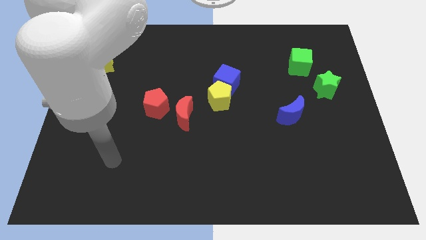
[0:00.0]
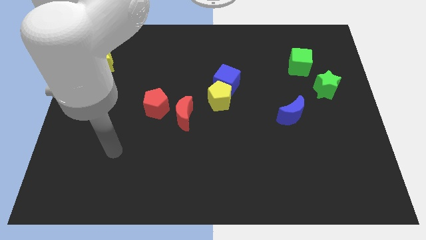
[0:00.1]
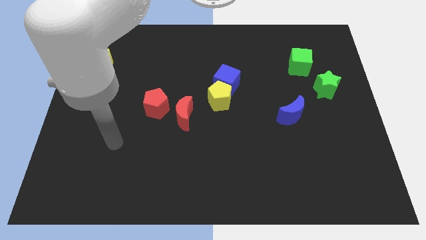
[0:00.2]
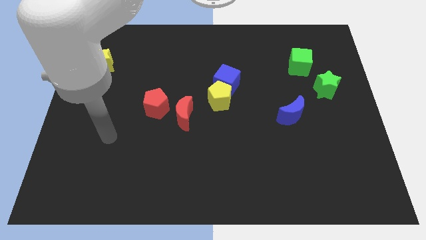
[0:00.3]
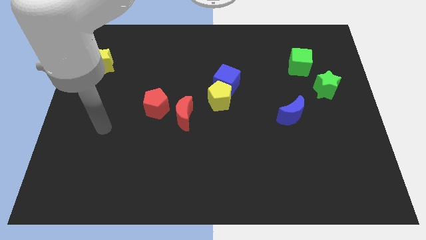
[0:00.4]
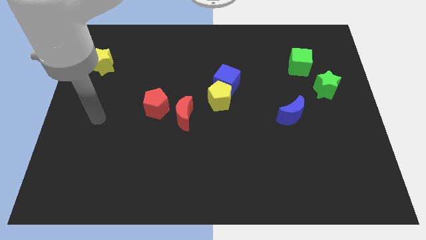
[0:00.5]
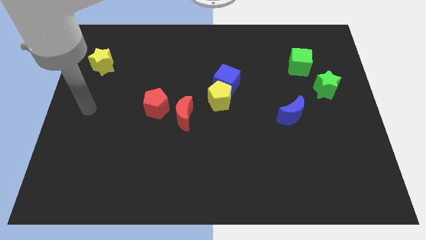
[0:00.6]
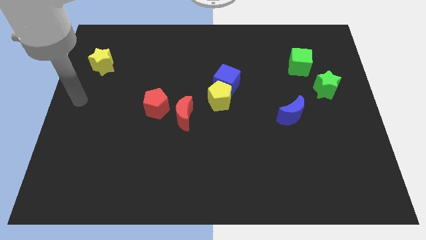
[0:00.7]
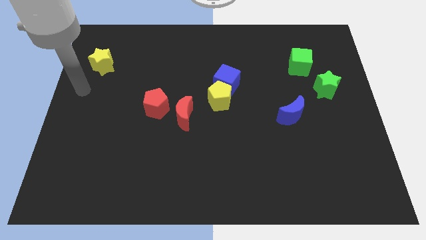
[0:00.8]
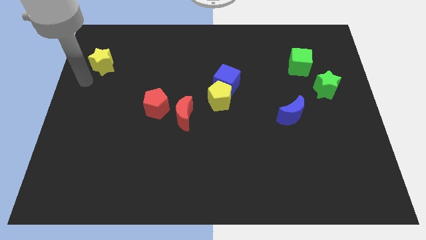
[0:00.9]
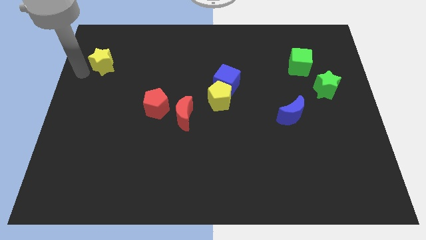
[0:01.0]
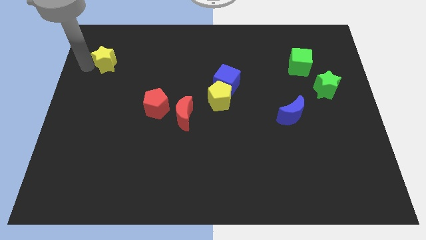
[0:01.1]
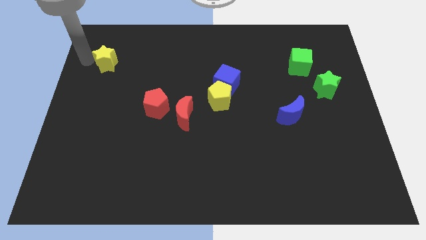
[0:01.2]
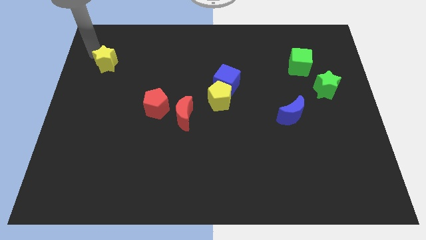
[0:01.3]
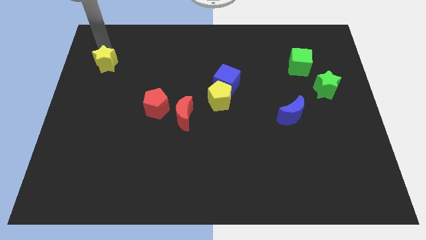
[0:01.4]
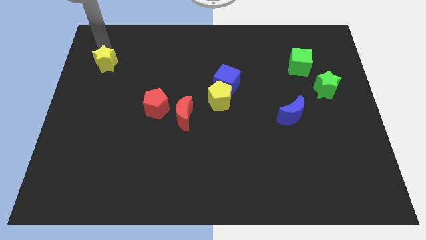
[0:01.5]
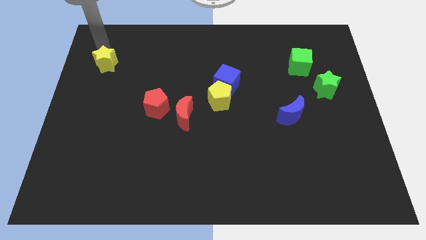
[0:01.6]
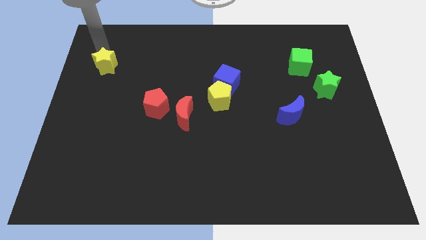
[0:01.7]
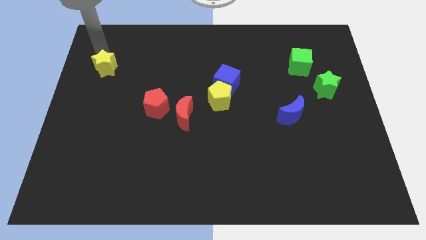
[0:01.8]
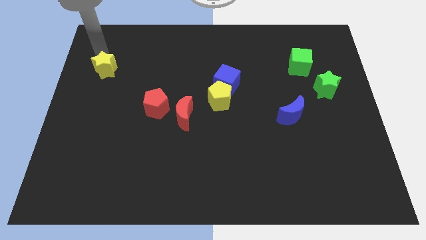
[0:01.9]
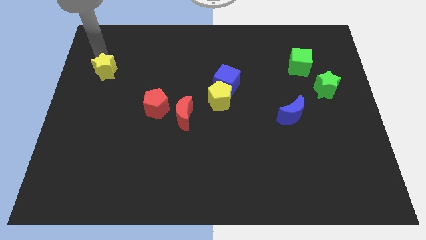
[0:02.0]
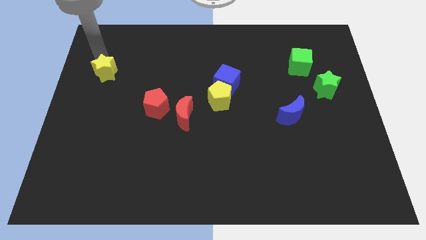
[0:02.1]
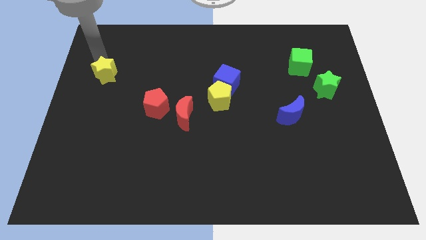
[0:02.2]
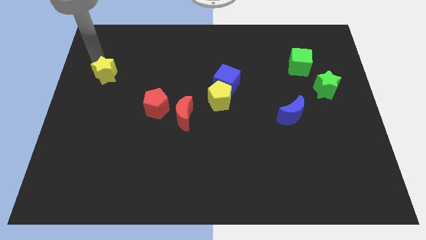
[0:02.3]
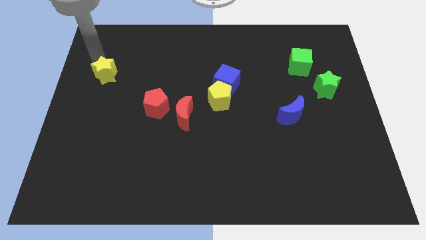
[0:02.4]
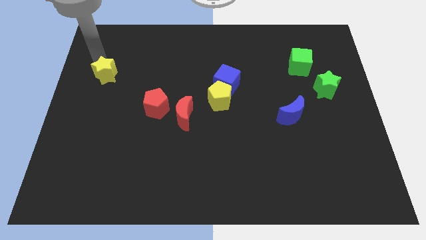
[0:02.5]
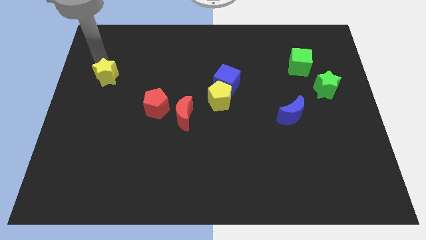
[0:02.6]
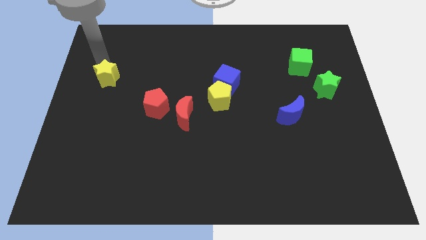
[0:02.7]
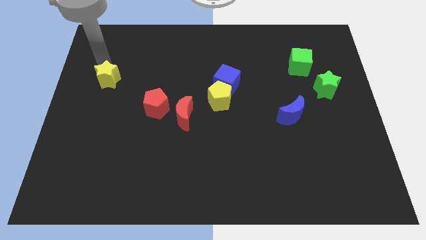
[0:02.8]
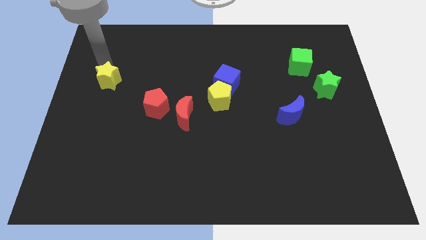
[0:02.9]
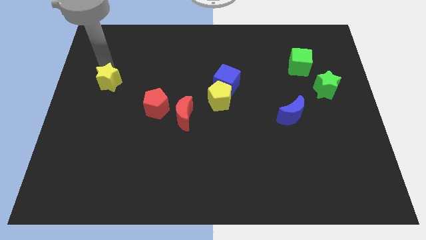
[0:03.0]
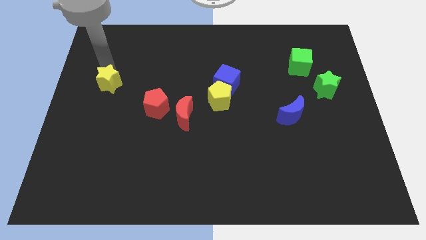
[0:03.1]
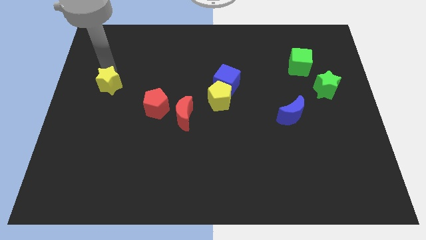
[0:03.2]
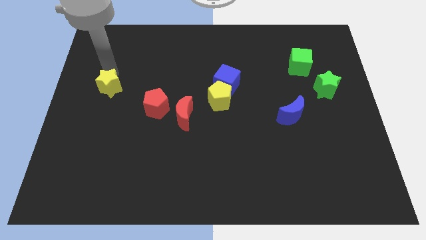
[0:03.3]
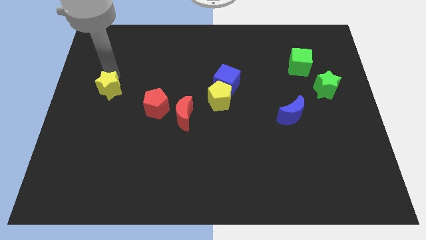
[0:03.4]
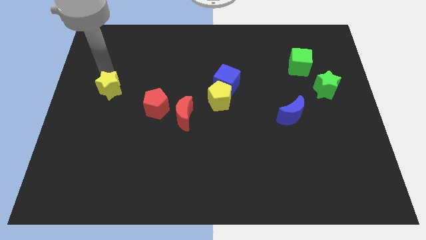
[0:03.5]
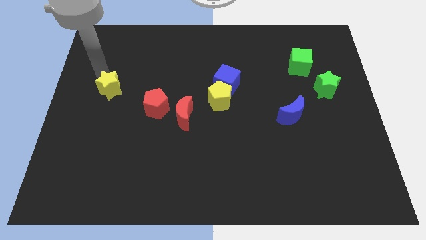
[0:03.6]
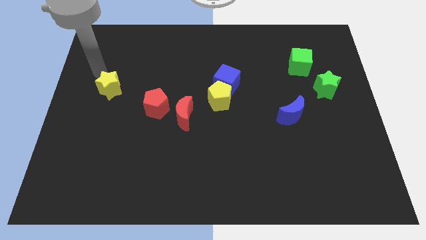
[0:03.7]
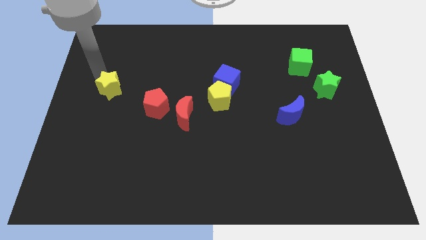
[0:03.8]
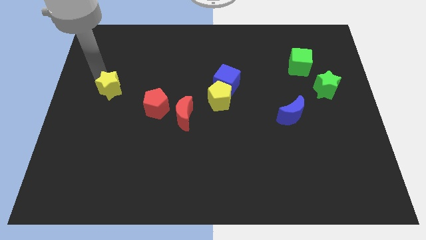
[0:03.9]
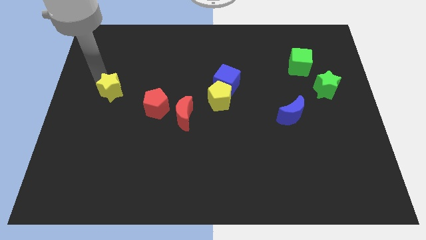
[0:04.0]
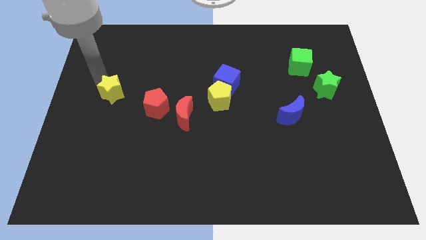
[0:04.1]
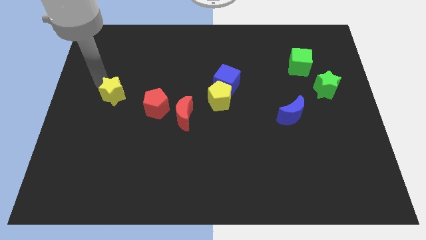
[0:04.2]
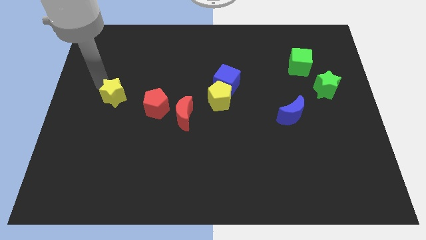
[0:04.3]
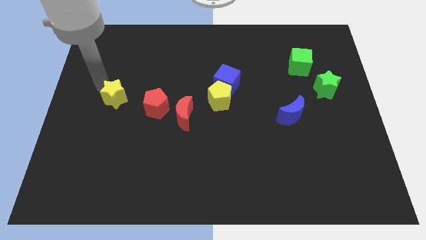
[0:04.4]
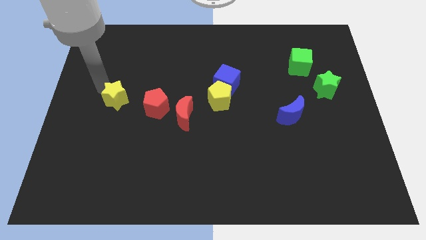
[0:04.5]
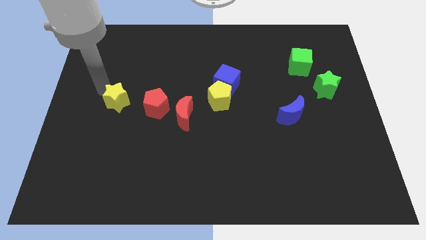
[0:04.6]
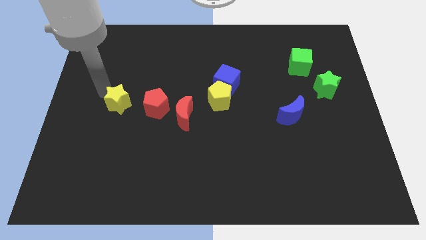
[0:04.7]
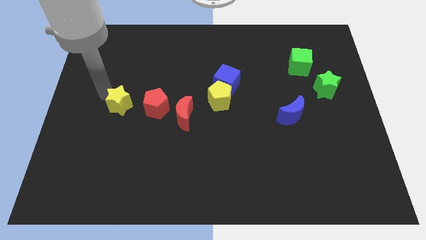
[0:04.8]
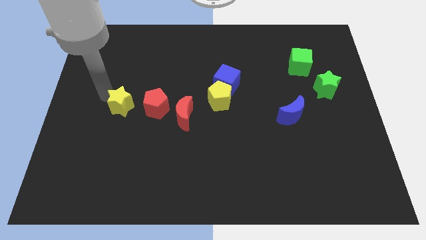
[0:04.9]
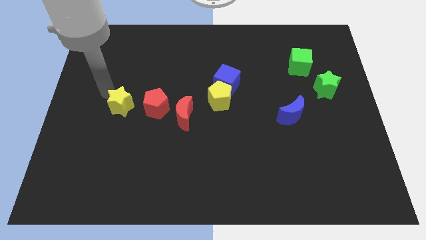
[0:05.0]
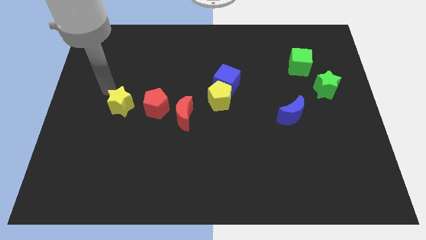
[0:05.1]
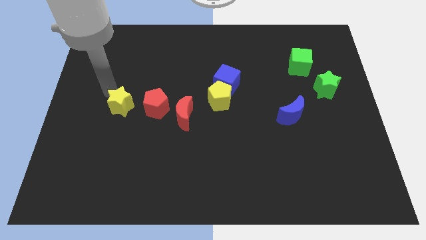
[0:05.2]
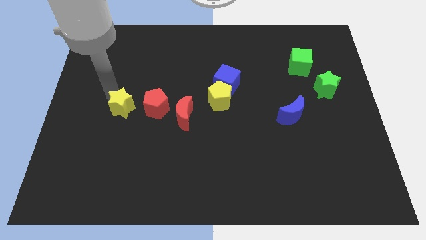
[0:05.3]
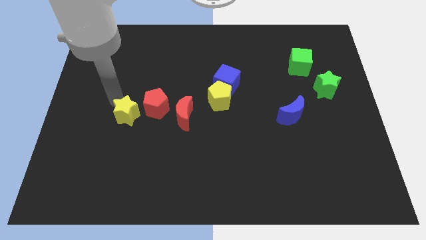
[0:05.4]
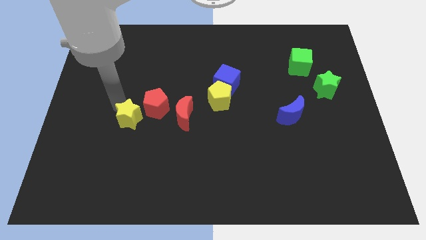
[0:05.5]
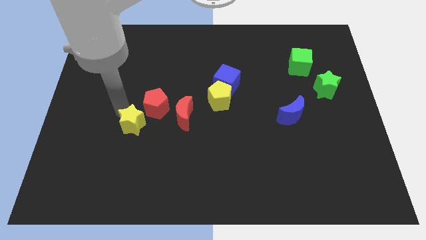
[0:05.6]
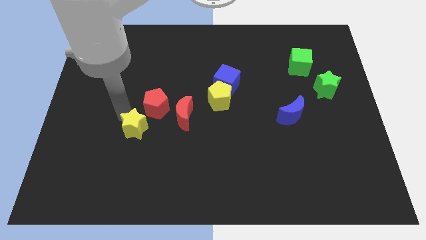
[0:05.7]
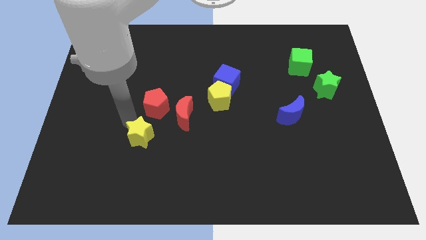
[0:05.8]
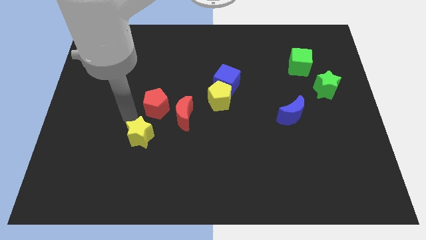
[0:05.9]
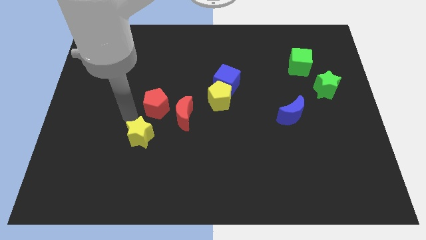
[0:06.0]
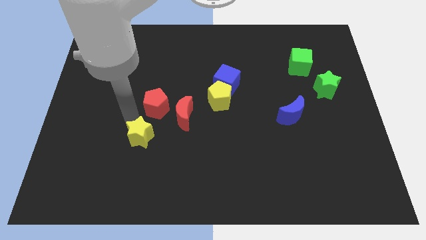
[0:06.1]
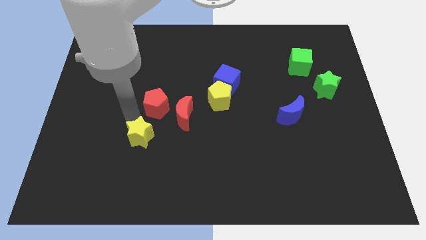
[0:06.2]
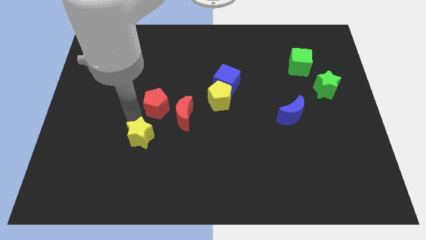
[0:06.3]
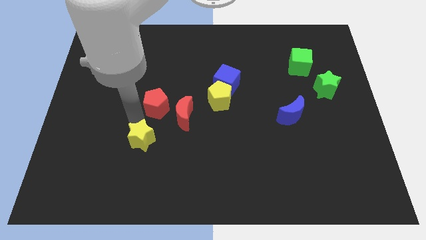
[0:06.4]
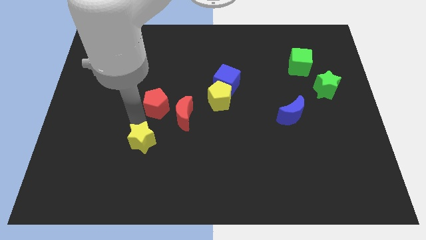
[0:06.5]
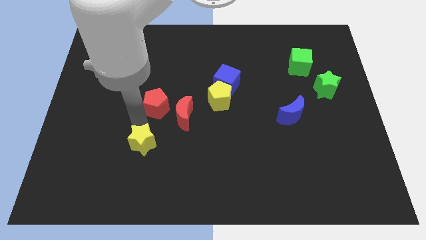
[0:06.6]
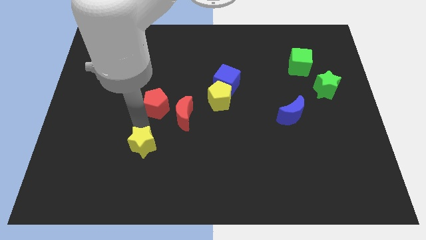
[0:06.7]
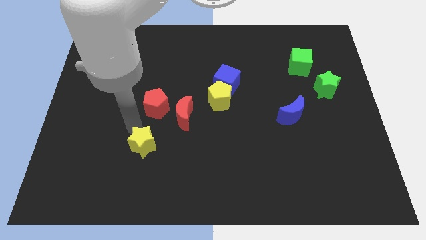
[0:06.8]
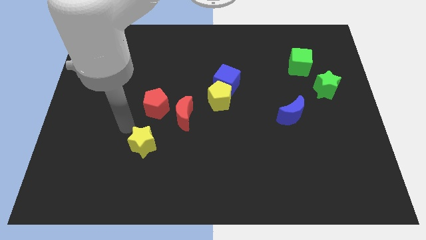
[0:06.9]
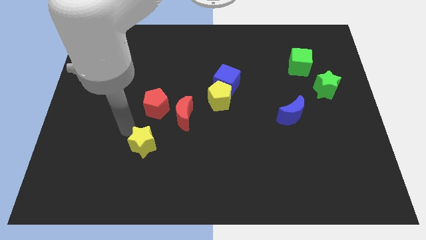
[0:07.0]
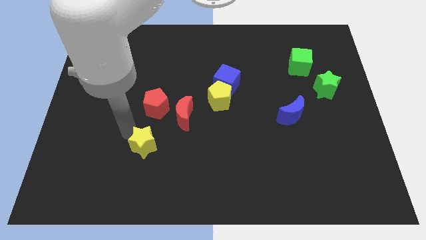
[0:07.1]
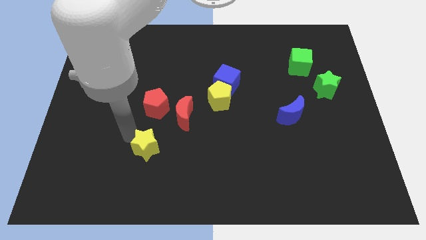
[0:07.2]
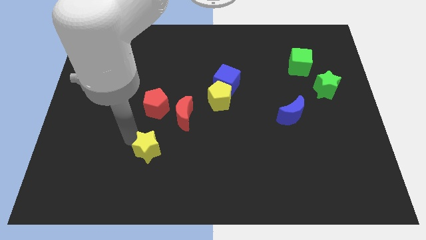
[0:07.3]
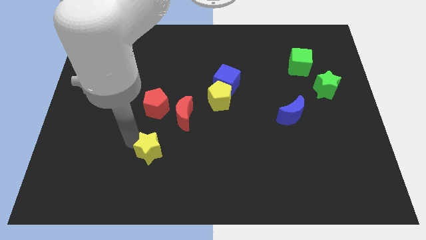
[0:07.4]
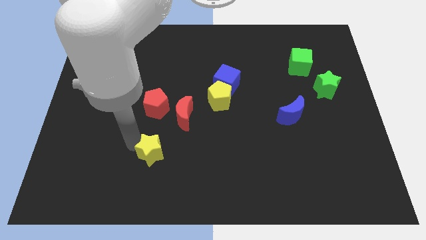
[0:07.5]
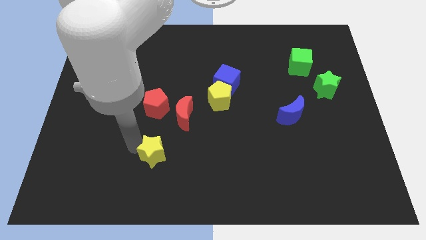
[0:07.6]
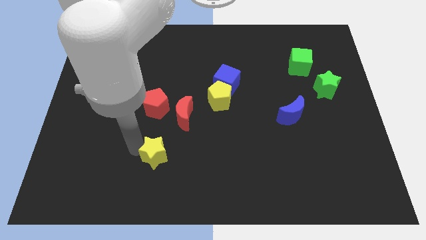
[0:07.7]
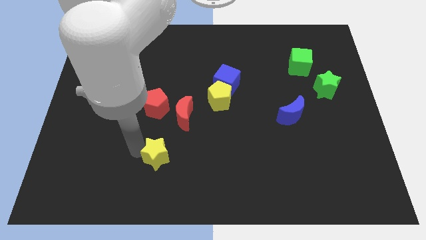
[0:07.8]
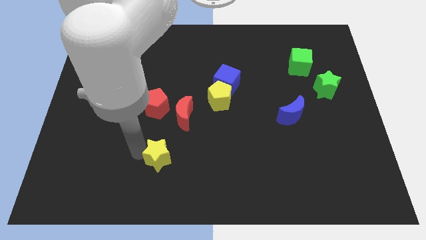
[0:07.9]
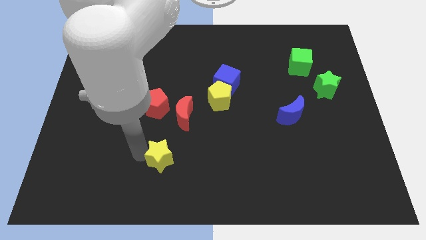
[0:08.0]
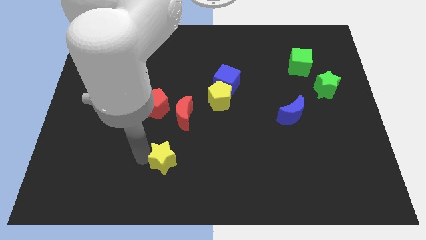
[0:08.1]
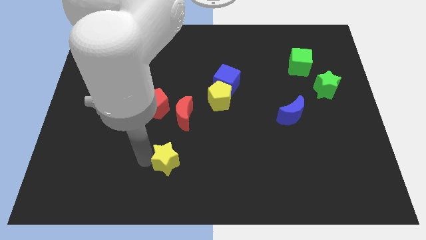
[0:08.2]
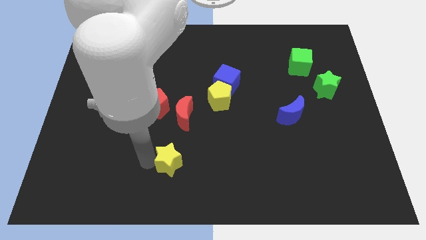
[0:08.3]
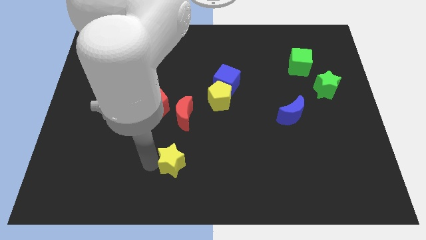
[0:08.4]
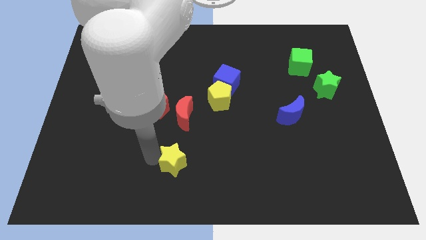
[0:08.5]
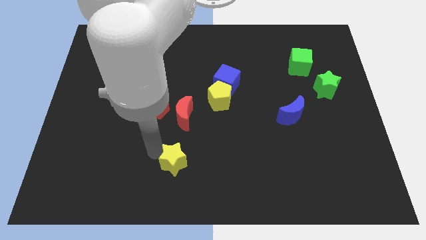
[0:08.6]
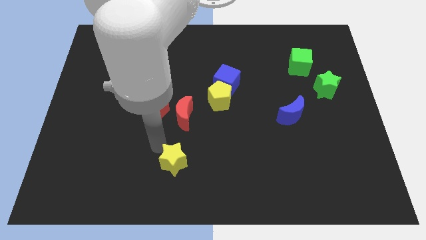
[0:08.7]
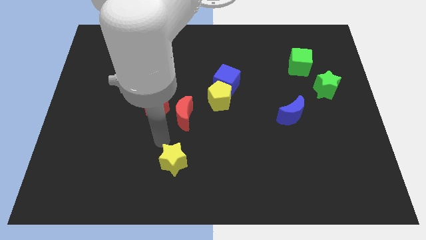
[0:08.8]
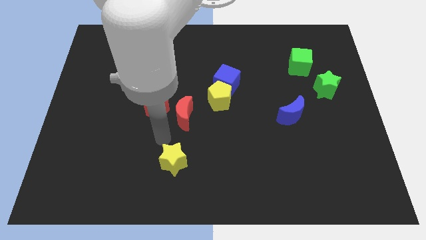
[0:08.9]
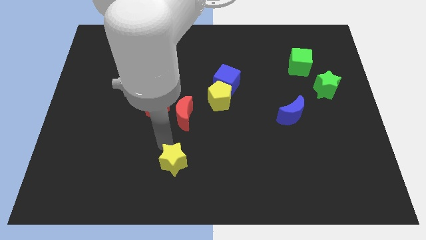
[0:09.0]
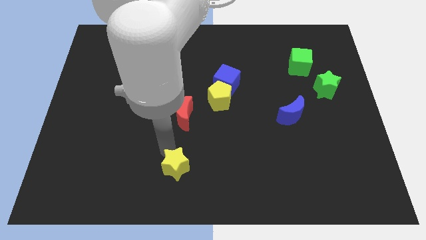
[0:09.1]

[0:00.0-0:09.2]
put the yellow star to the bottom
